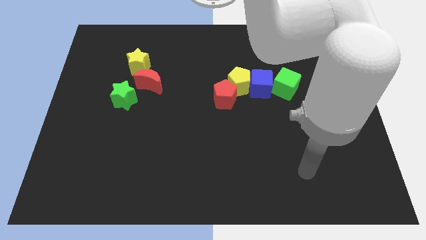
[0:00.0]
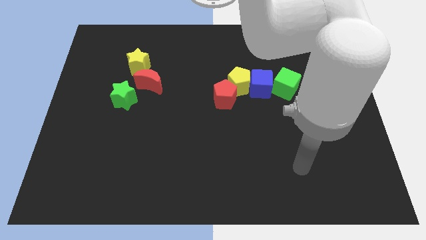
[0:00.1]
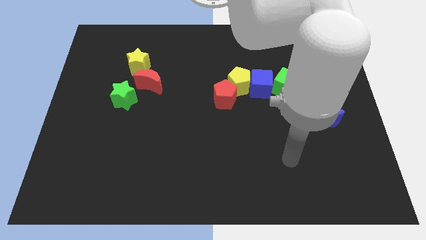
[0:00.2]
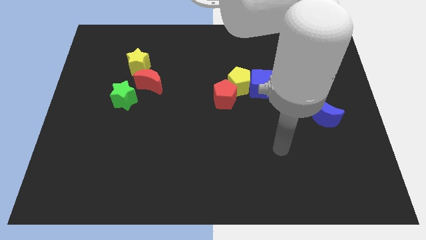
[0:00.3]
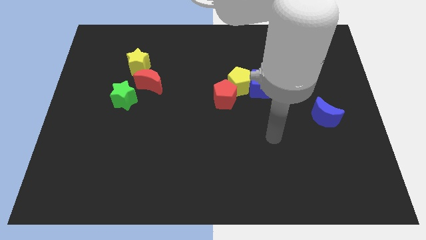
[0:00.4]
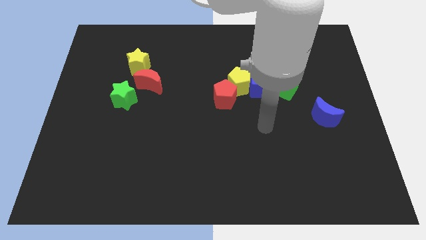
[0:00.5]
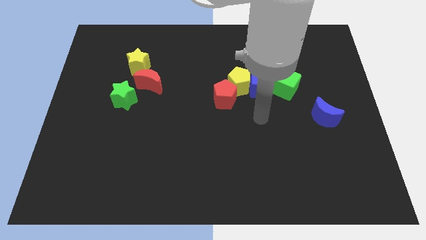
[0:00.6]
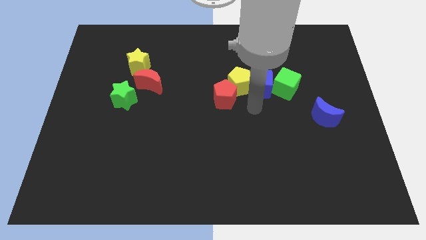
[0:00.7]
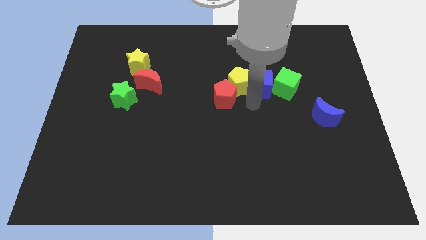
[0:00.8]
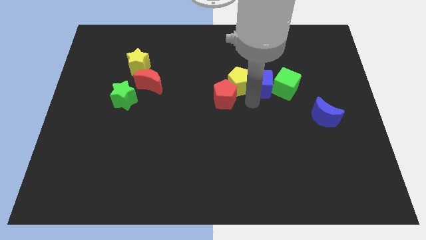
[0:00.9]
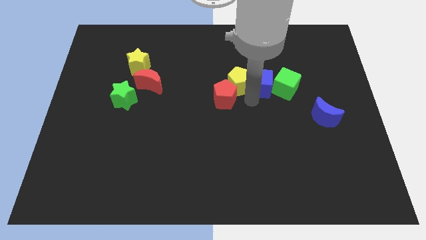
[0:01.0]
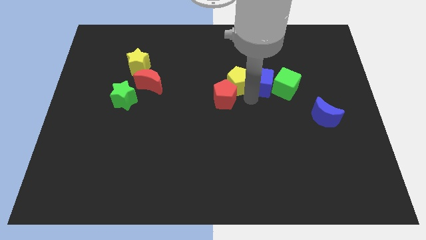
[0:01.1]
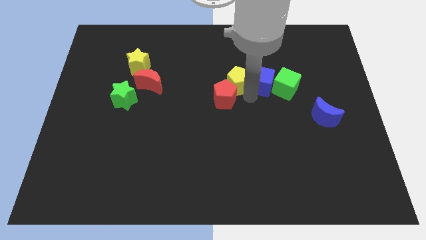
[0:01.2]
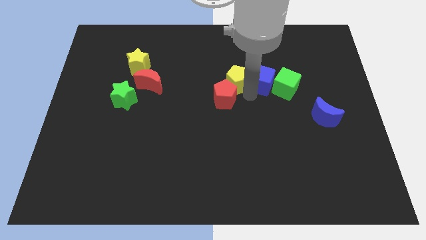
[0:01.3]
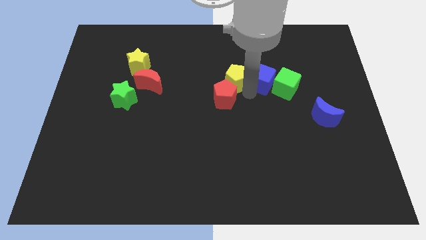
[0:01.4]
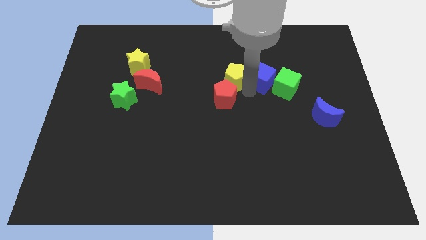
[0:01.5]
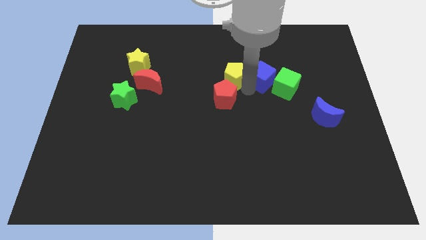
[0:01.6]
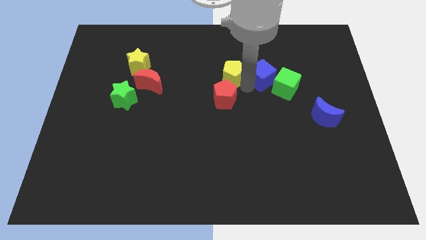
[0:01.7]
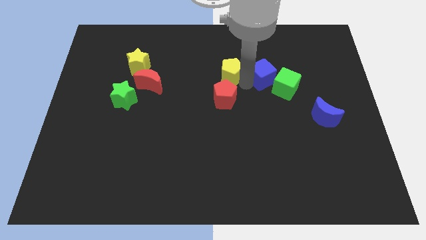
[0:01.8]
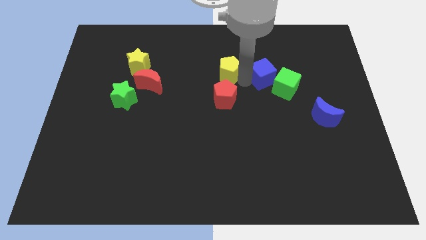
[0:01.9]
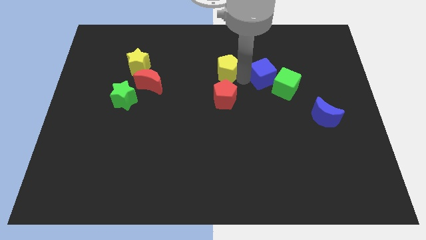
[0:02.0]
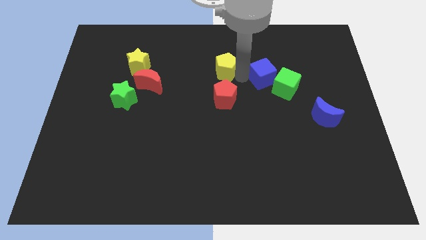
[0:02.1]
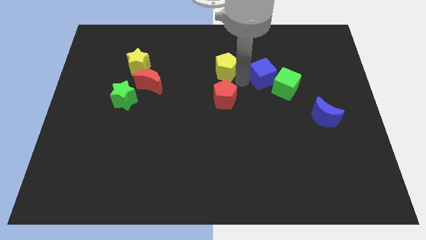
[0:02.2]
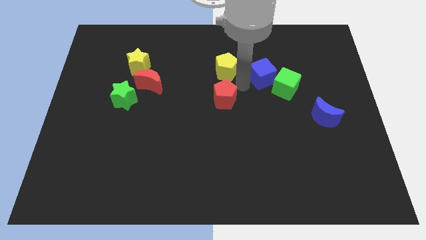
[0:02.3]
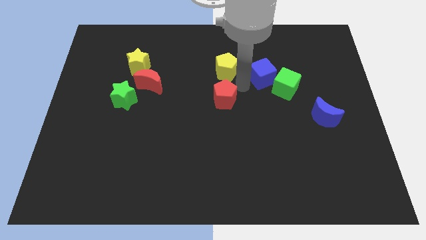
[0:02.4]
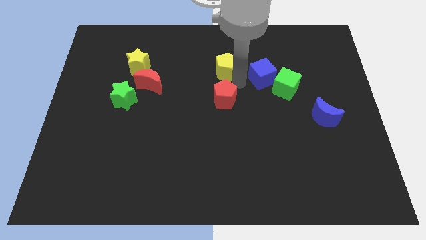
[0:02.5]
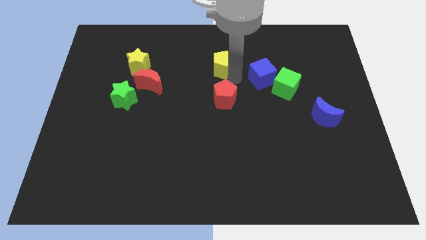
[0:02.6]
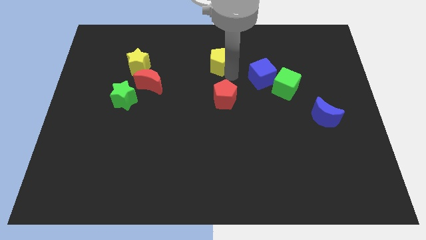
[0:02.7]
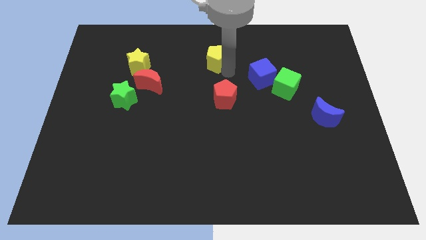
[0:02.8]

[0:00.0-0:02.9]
pull the yellow pentagon apart from the blue cube and red pentagon

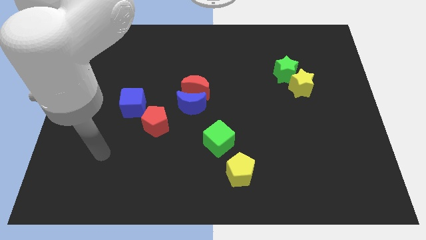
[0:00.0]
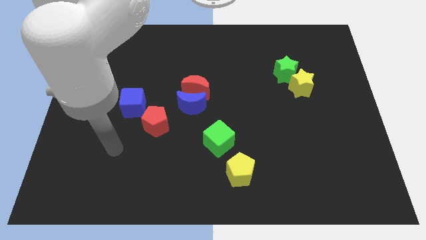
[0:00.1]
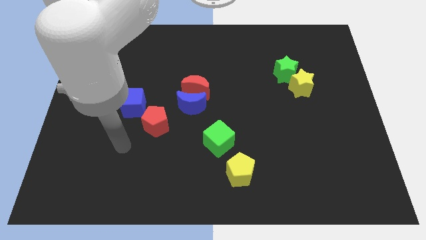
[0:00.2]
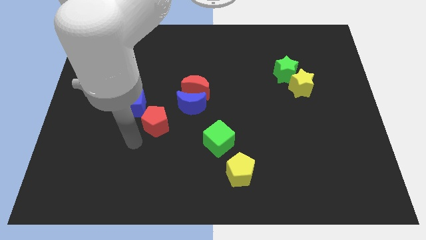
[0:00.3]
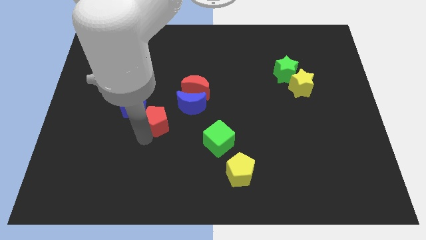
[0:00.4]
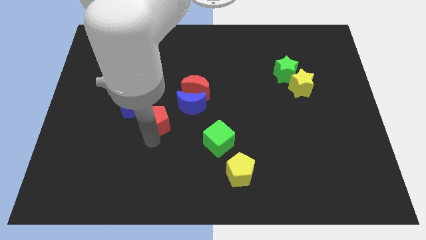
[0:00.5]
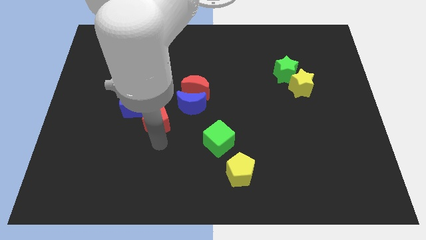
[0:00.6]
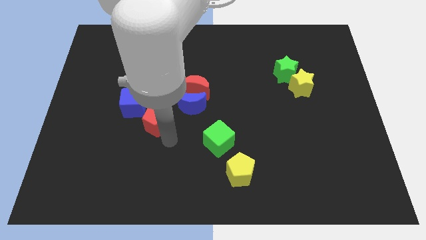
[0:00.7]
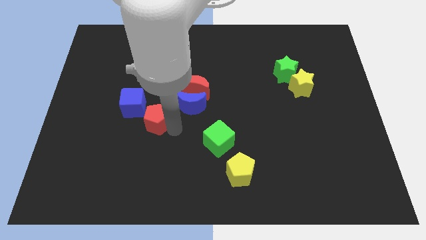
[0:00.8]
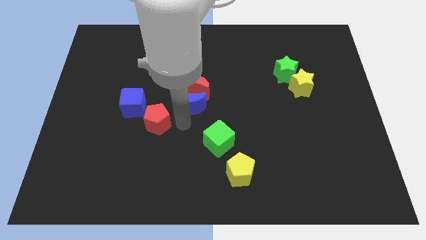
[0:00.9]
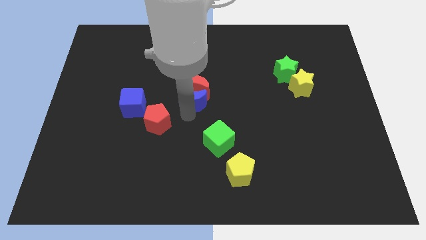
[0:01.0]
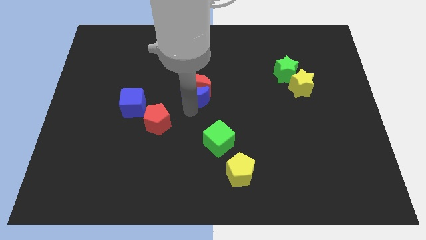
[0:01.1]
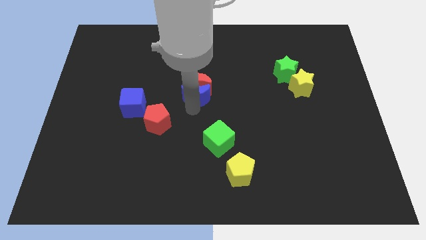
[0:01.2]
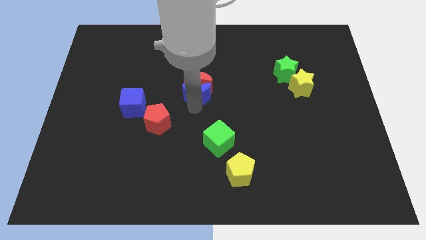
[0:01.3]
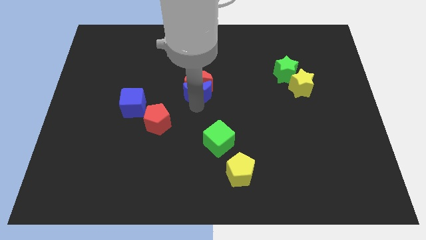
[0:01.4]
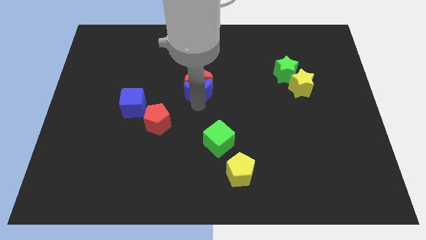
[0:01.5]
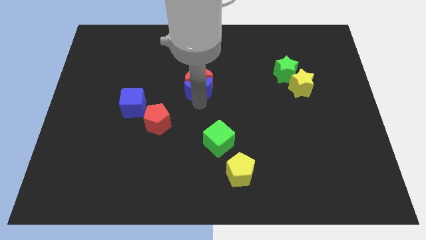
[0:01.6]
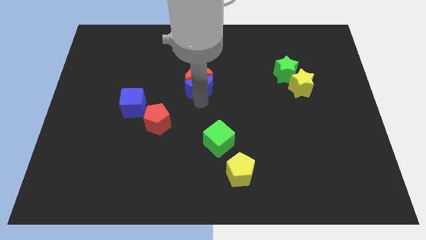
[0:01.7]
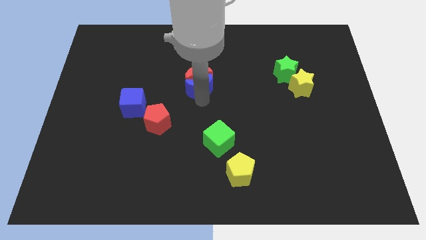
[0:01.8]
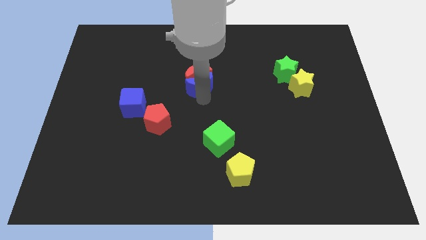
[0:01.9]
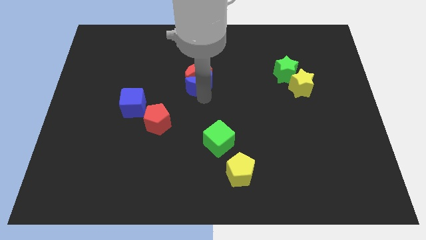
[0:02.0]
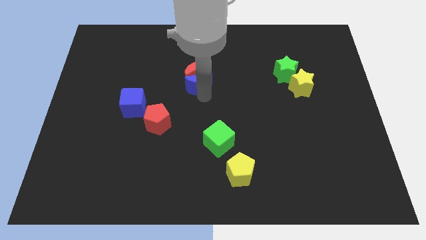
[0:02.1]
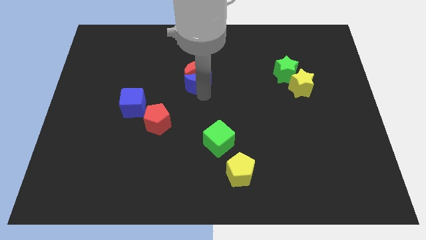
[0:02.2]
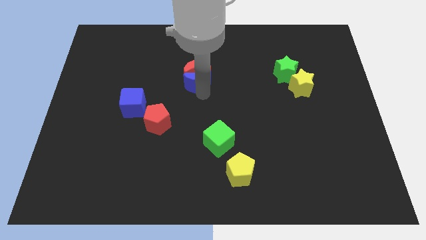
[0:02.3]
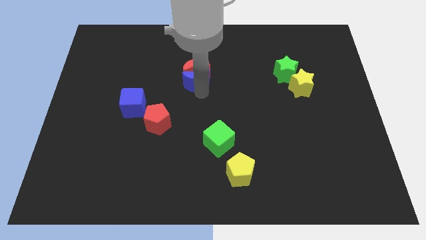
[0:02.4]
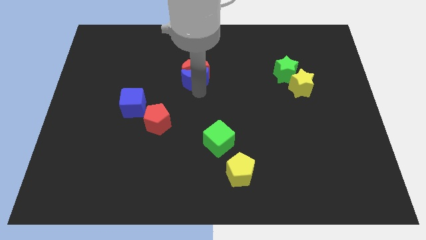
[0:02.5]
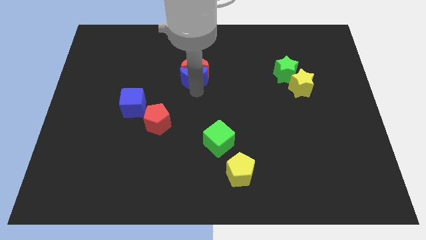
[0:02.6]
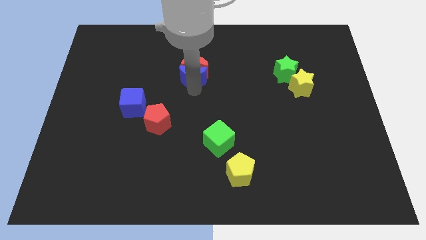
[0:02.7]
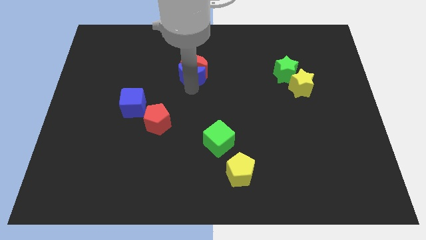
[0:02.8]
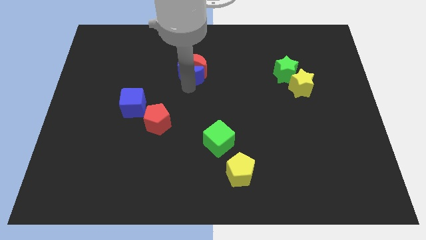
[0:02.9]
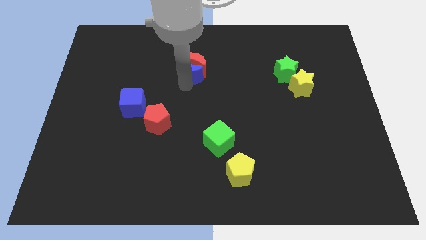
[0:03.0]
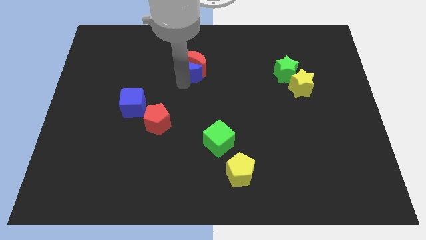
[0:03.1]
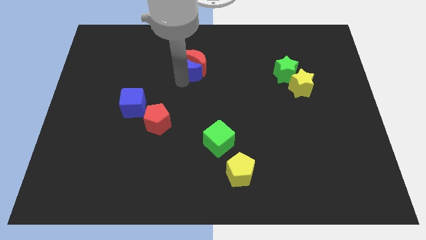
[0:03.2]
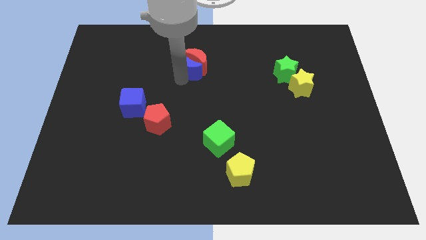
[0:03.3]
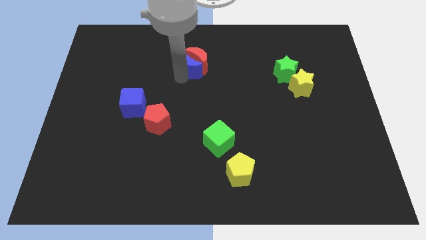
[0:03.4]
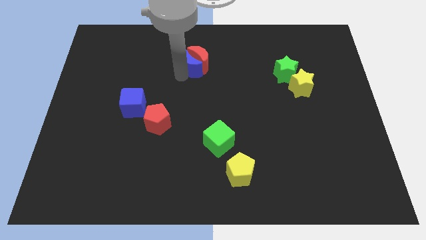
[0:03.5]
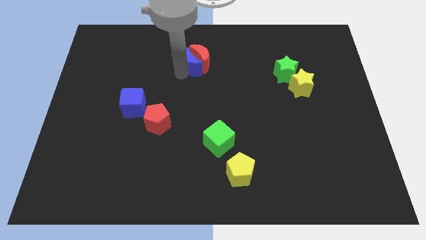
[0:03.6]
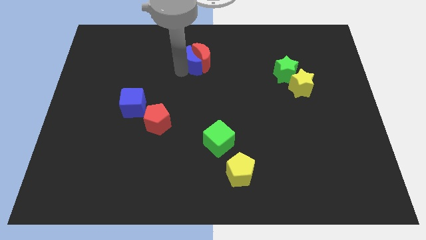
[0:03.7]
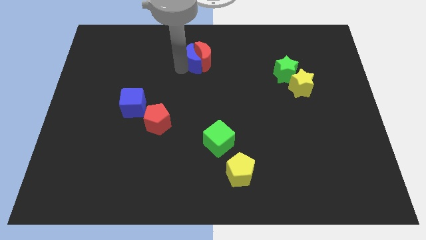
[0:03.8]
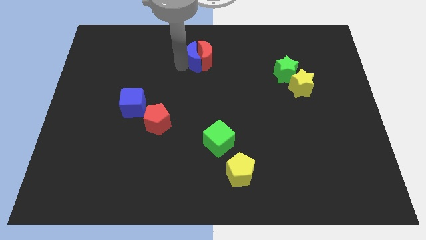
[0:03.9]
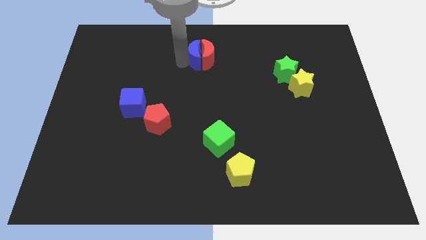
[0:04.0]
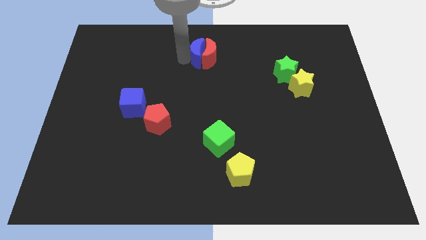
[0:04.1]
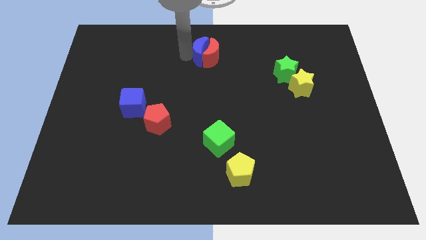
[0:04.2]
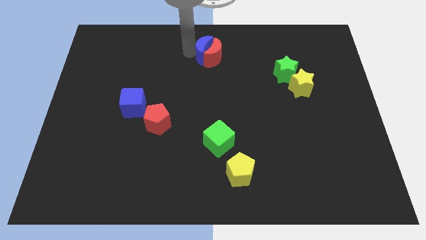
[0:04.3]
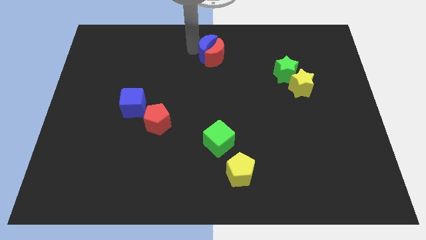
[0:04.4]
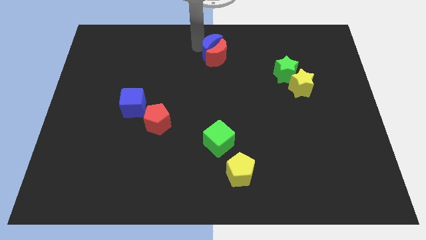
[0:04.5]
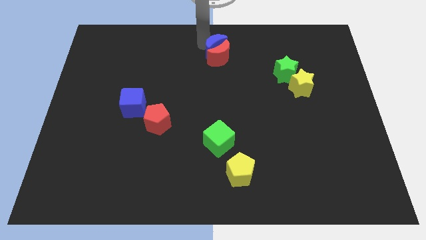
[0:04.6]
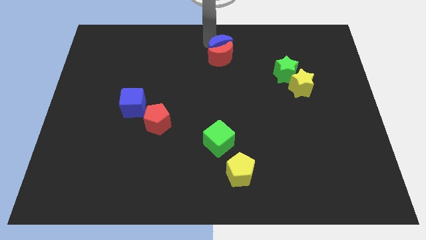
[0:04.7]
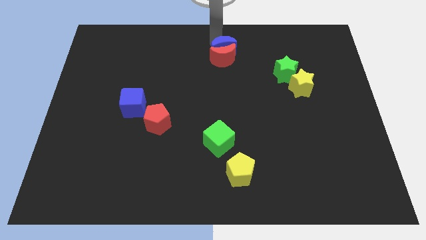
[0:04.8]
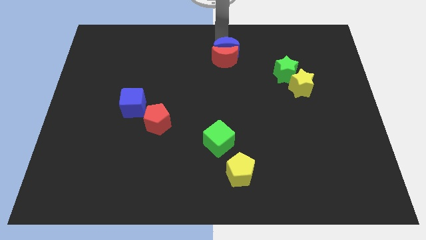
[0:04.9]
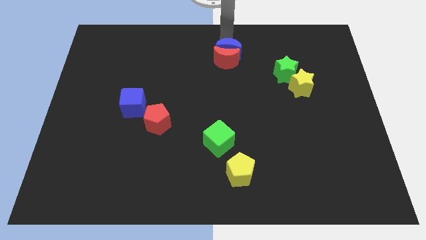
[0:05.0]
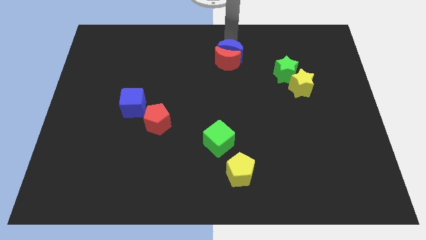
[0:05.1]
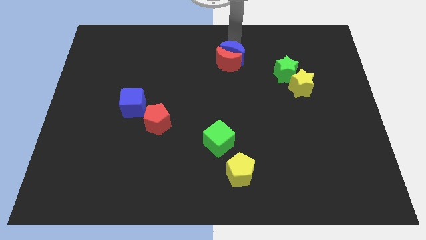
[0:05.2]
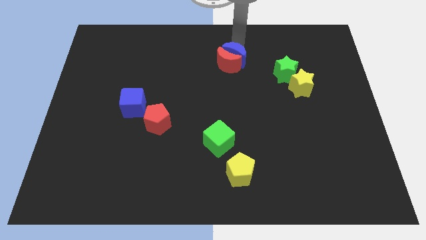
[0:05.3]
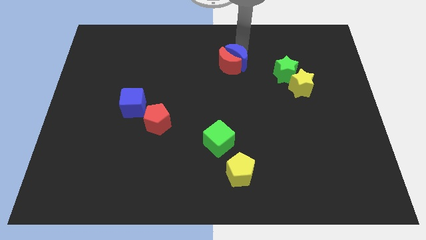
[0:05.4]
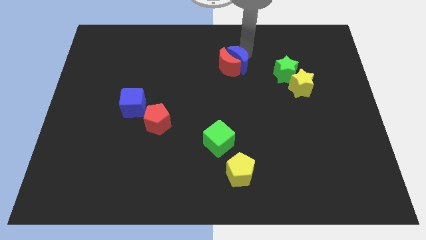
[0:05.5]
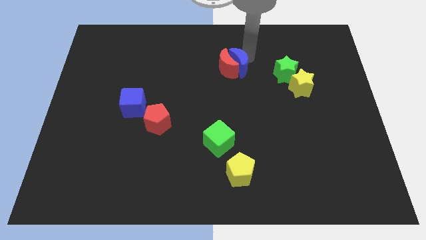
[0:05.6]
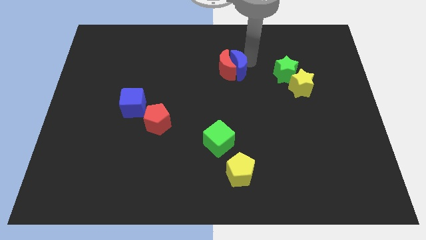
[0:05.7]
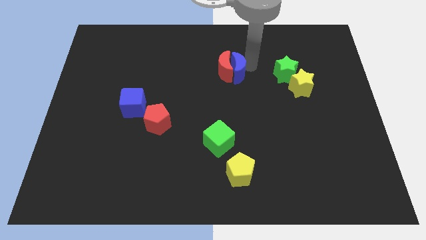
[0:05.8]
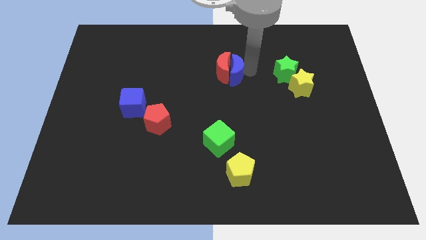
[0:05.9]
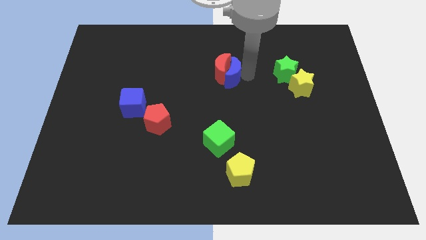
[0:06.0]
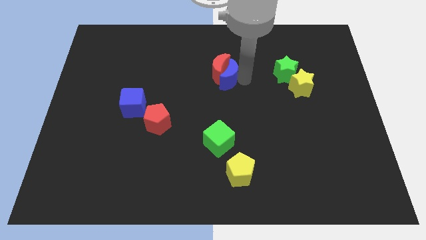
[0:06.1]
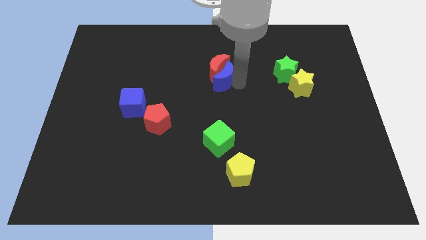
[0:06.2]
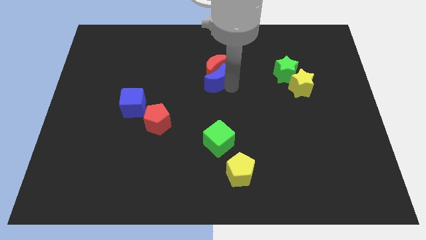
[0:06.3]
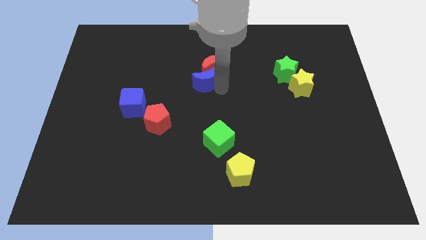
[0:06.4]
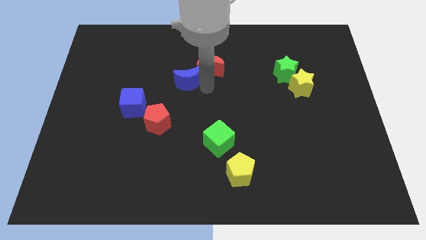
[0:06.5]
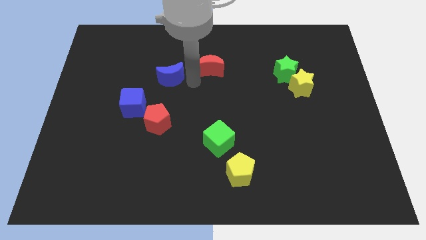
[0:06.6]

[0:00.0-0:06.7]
separate the red moon from the blue moon
